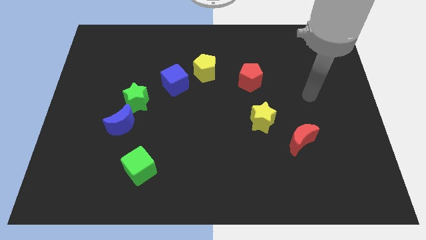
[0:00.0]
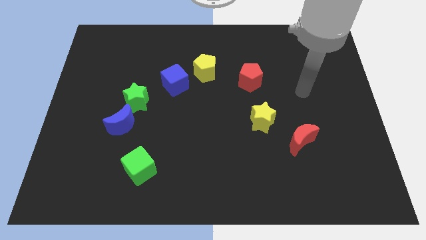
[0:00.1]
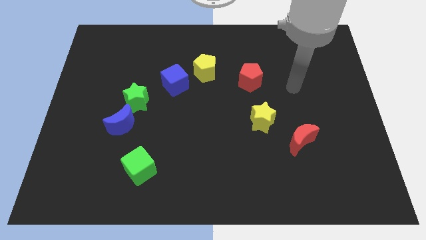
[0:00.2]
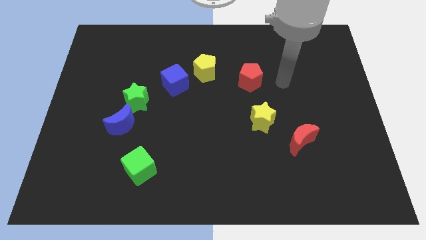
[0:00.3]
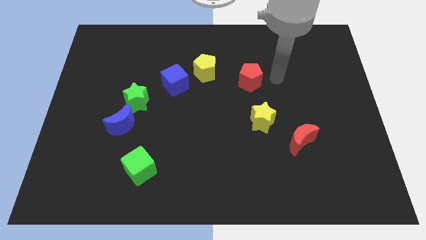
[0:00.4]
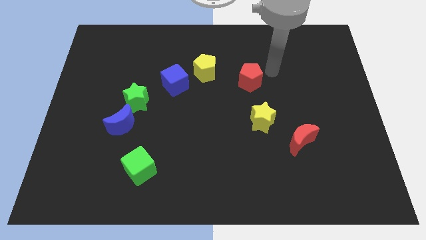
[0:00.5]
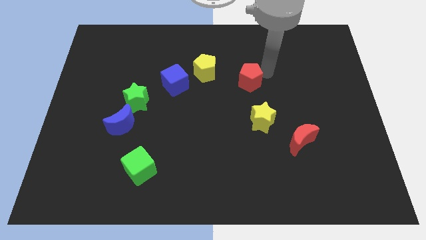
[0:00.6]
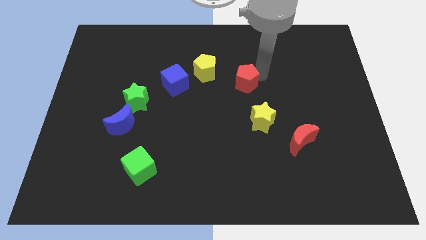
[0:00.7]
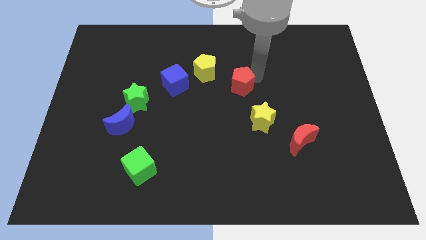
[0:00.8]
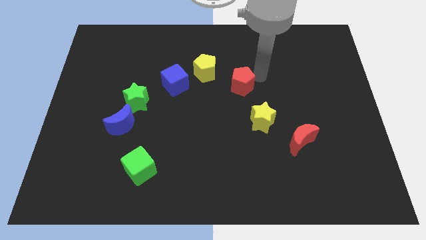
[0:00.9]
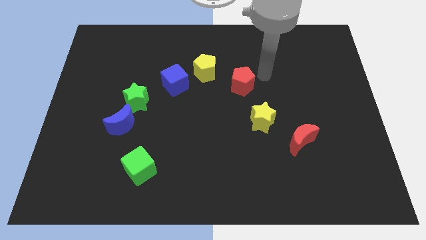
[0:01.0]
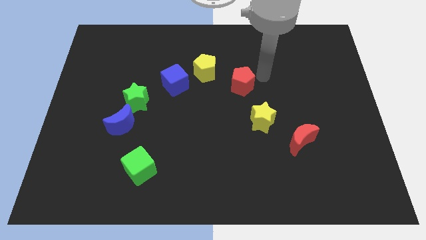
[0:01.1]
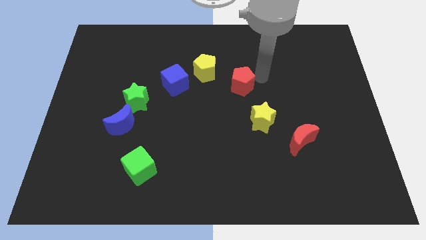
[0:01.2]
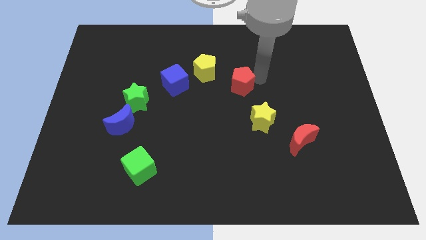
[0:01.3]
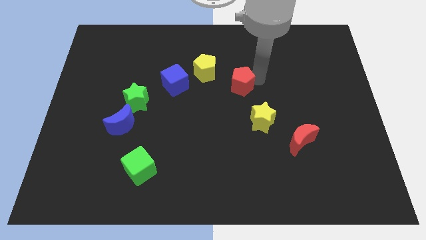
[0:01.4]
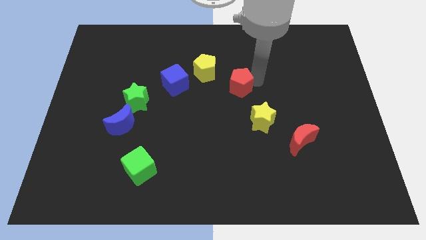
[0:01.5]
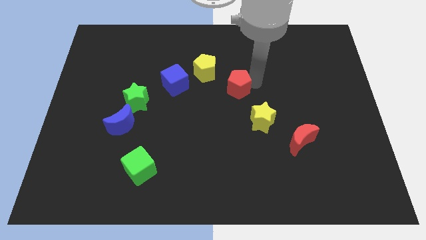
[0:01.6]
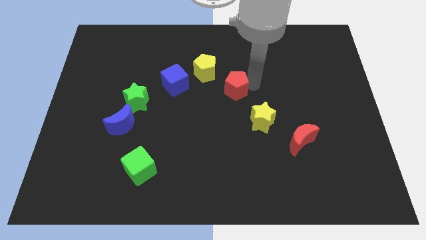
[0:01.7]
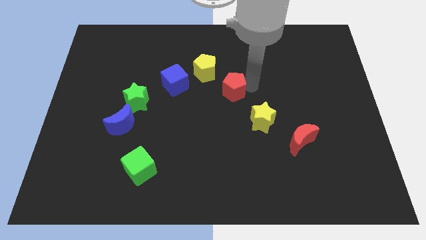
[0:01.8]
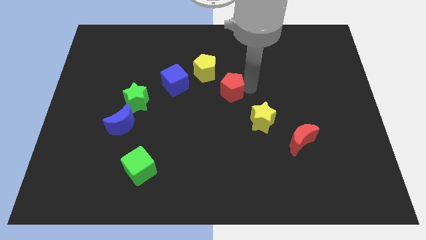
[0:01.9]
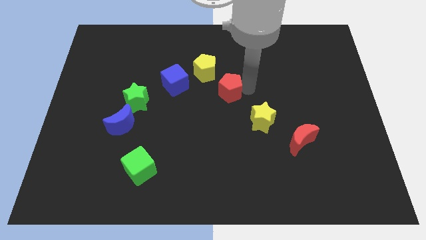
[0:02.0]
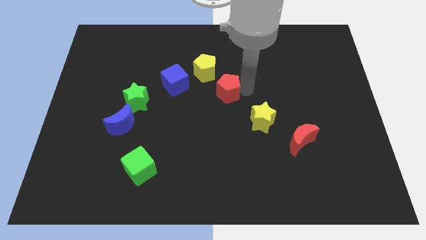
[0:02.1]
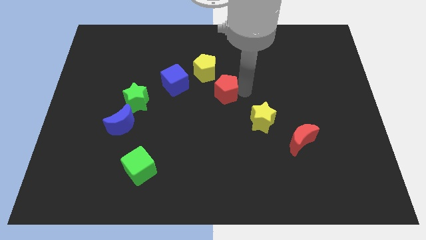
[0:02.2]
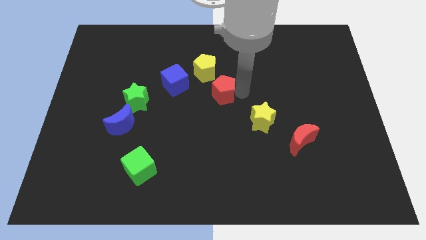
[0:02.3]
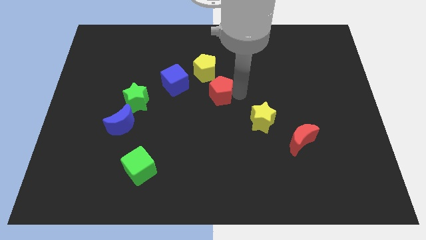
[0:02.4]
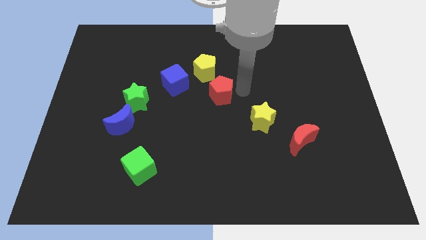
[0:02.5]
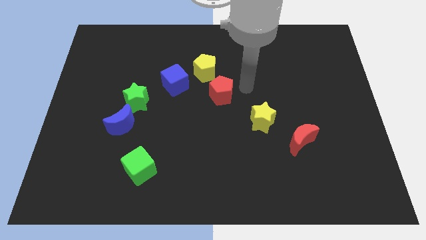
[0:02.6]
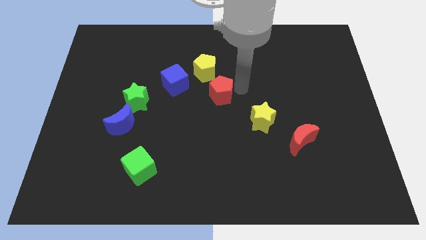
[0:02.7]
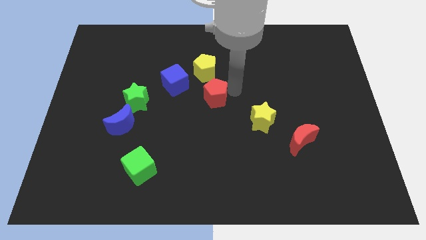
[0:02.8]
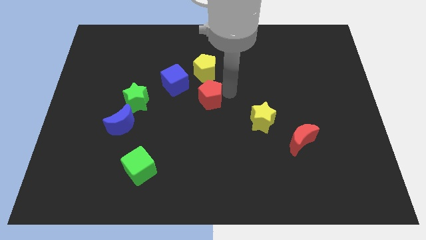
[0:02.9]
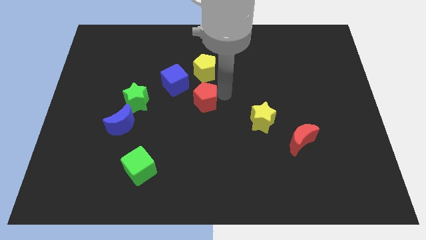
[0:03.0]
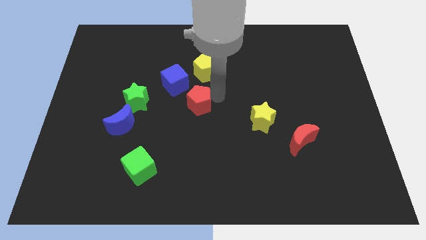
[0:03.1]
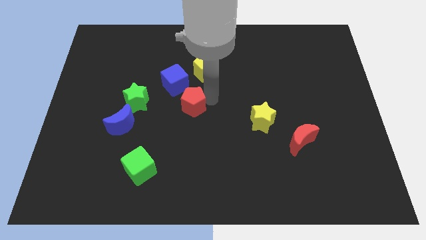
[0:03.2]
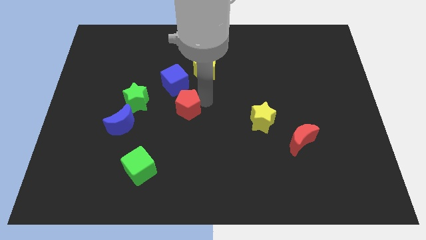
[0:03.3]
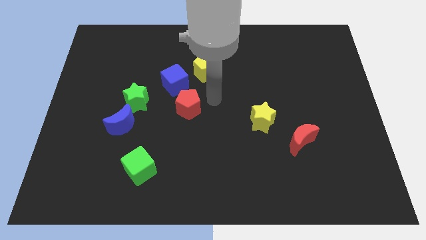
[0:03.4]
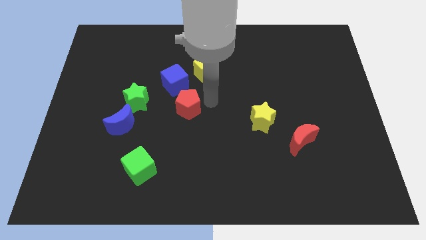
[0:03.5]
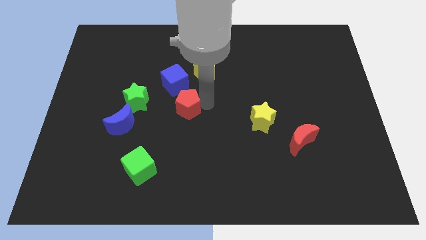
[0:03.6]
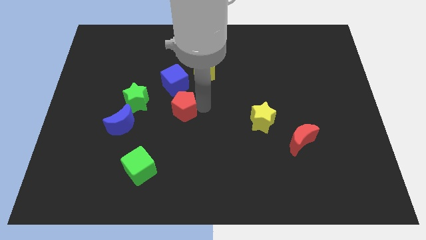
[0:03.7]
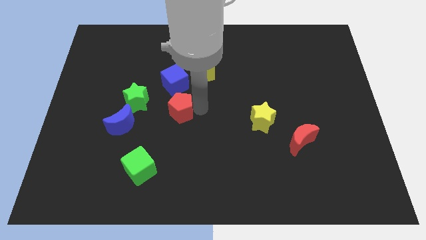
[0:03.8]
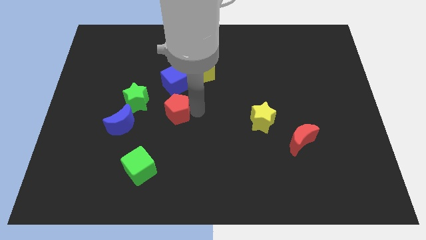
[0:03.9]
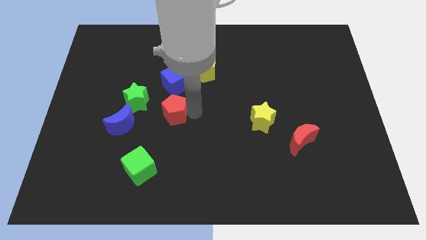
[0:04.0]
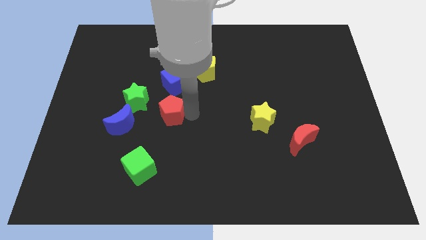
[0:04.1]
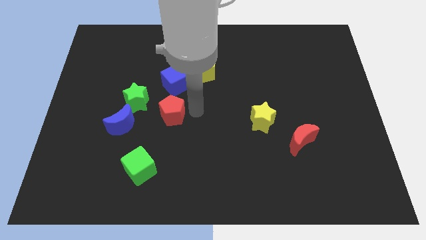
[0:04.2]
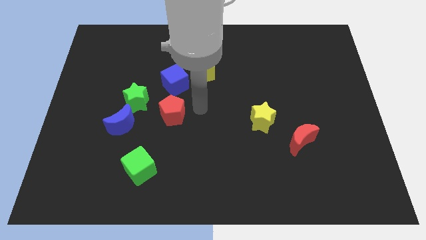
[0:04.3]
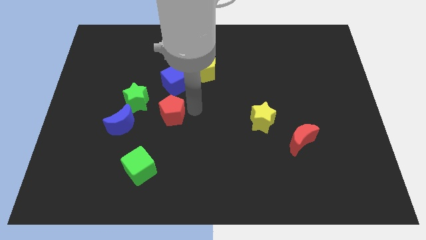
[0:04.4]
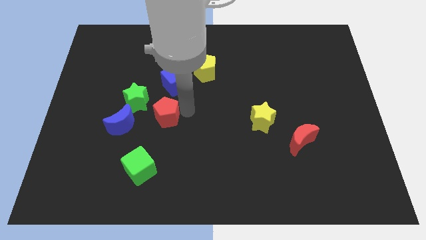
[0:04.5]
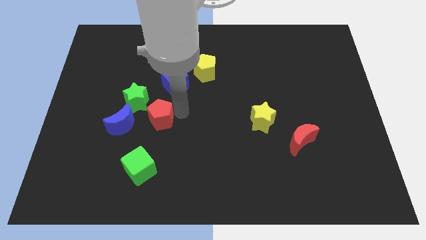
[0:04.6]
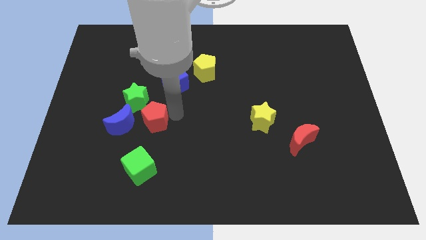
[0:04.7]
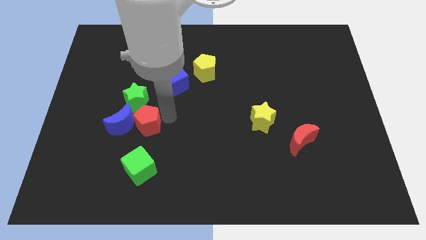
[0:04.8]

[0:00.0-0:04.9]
push the red pentagon next to the blue moon

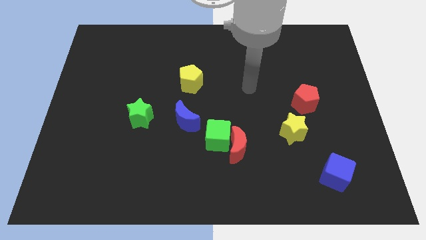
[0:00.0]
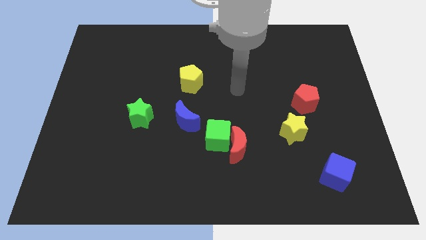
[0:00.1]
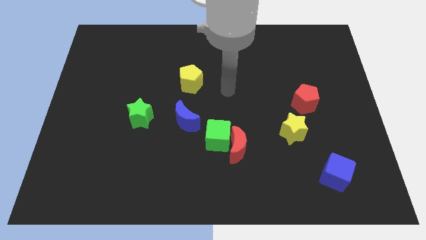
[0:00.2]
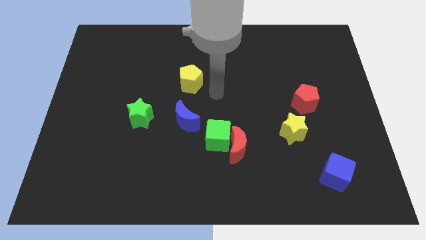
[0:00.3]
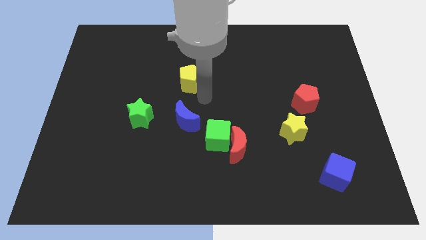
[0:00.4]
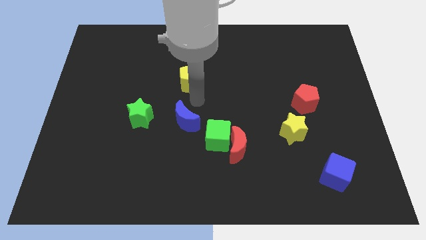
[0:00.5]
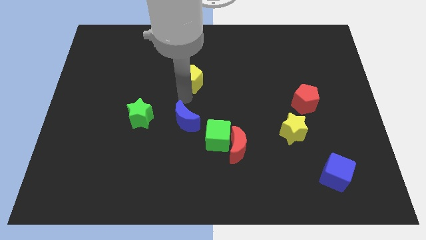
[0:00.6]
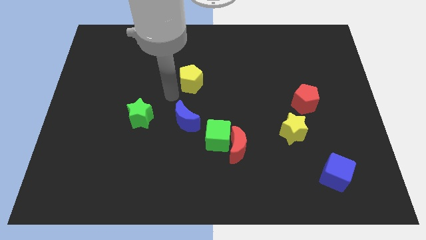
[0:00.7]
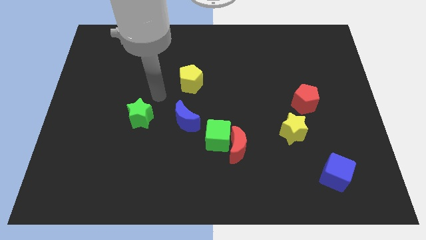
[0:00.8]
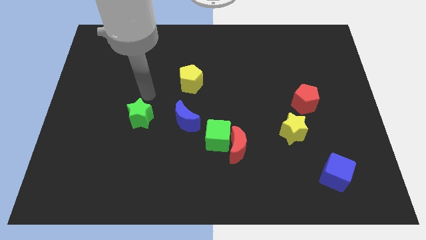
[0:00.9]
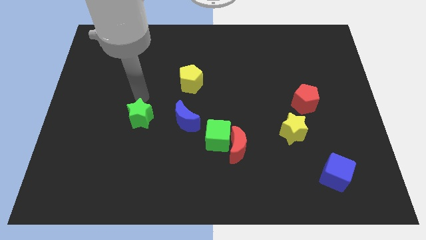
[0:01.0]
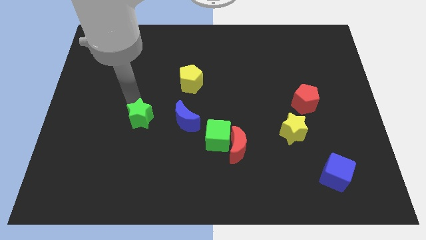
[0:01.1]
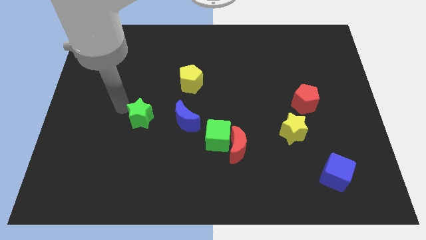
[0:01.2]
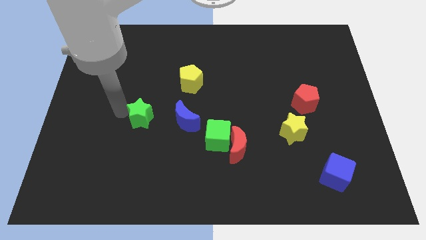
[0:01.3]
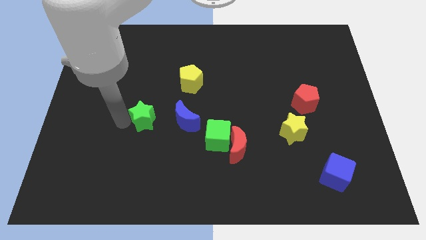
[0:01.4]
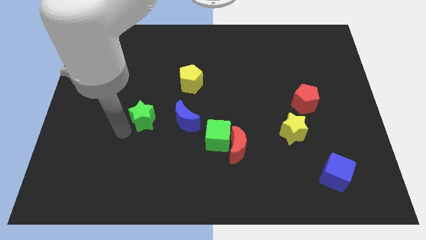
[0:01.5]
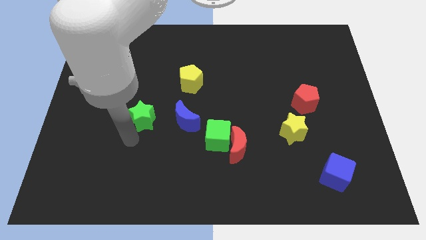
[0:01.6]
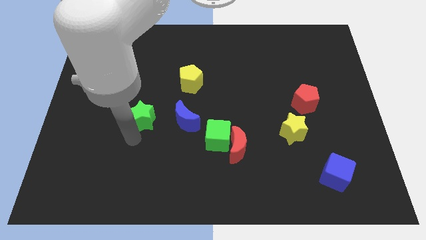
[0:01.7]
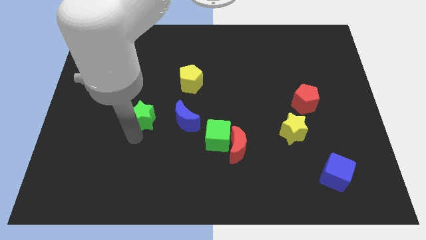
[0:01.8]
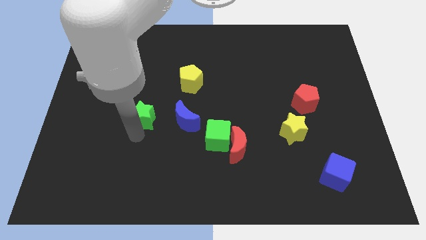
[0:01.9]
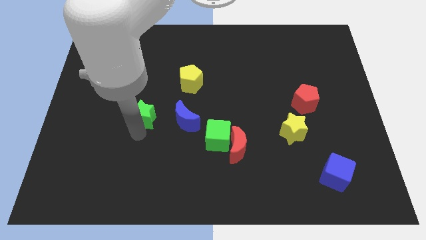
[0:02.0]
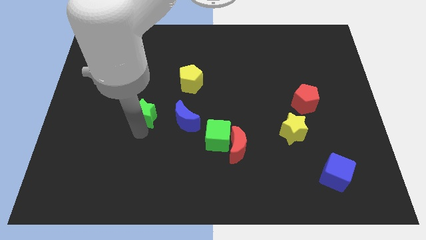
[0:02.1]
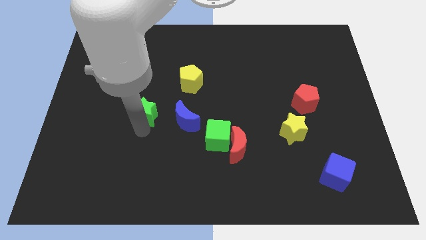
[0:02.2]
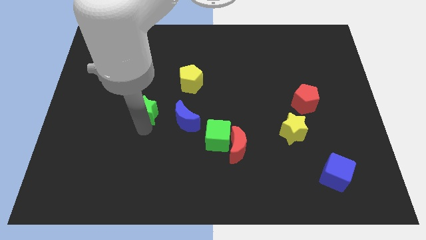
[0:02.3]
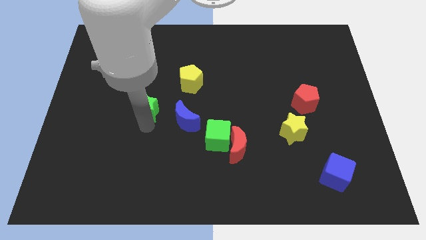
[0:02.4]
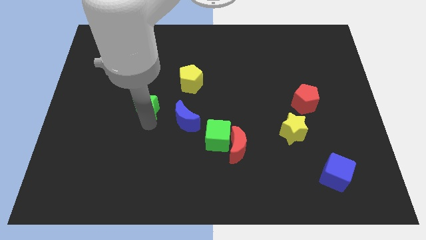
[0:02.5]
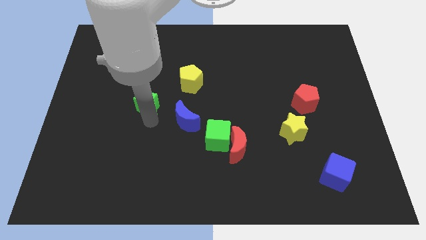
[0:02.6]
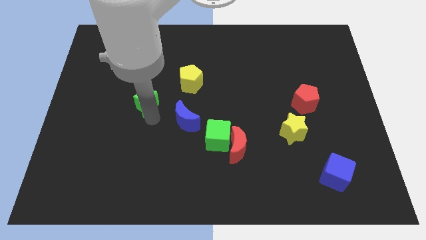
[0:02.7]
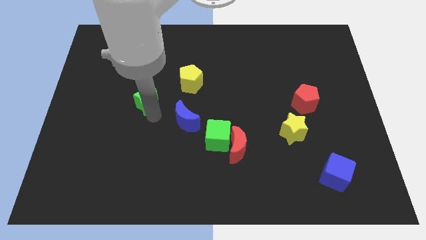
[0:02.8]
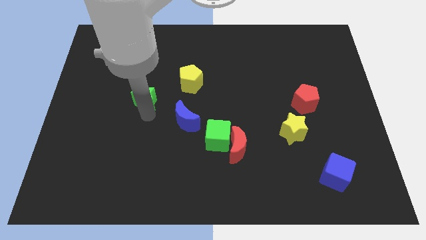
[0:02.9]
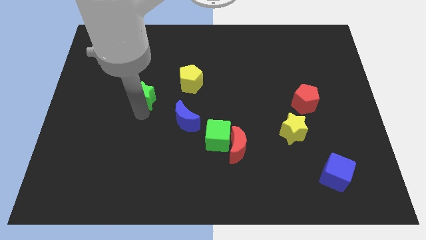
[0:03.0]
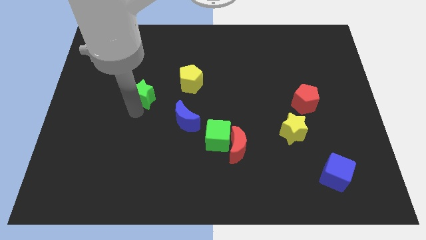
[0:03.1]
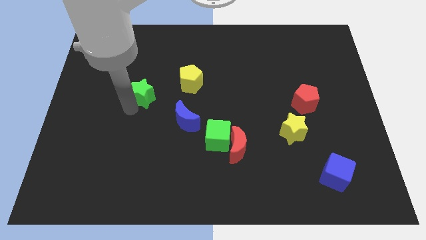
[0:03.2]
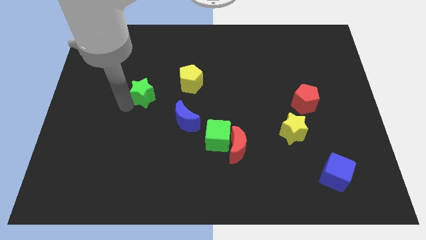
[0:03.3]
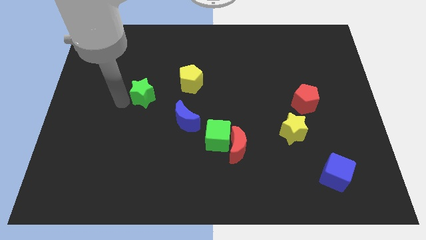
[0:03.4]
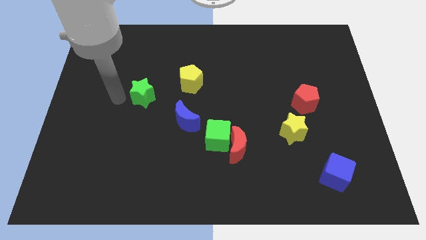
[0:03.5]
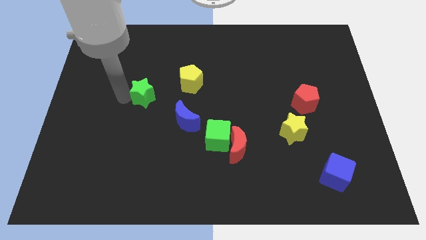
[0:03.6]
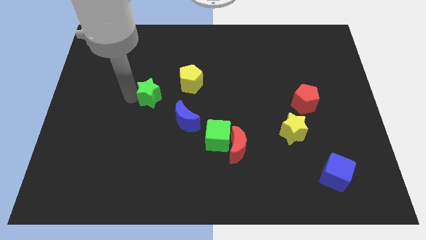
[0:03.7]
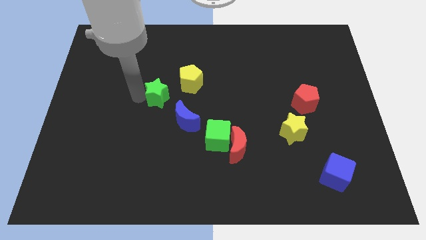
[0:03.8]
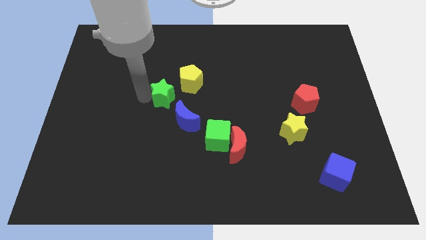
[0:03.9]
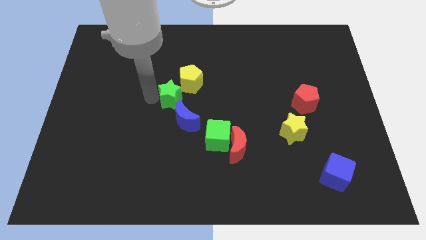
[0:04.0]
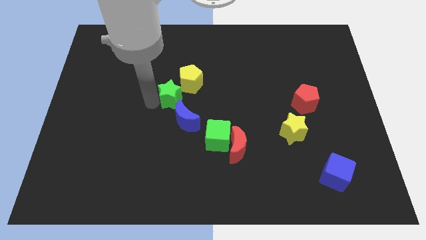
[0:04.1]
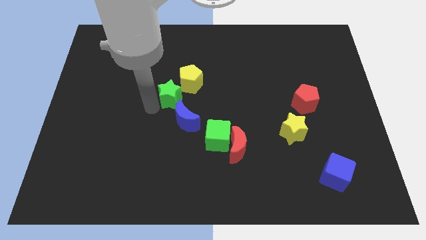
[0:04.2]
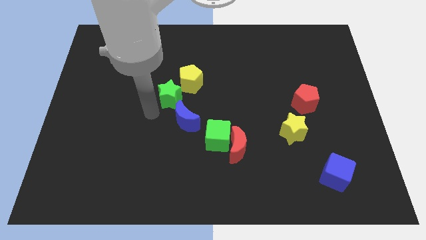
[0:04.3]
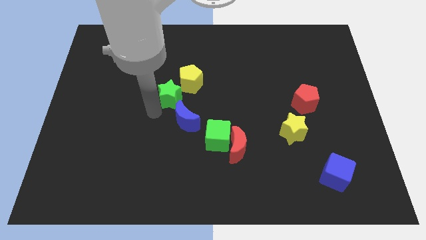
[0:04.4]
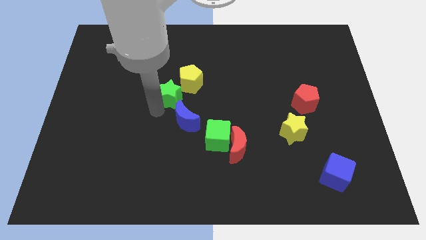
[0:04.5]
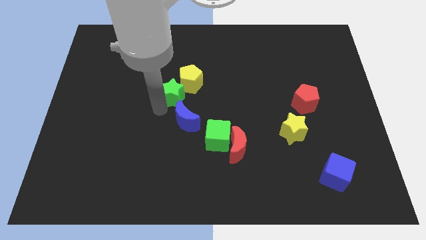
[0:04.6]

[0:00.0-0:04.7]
push the green star close to the yellow pentagon
